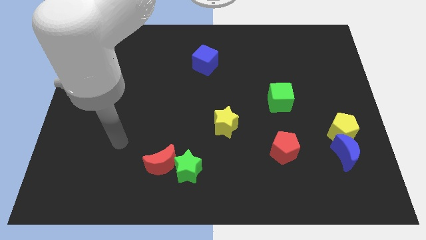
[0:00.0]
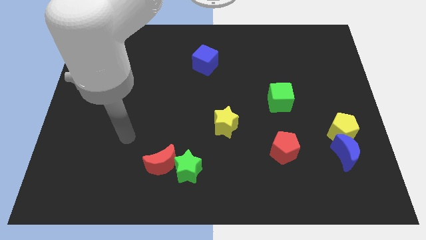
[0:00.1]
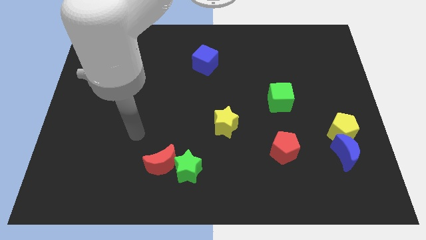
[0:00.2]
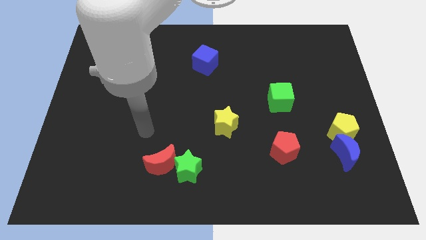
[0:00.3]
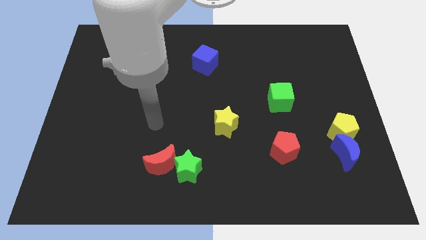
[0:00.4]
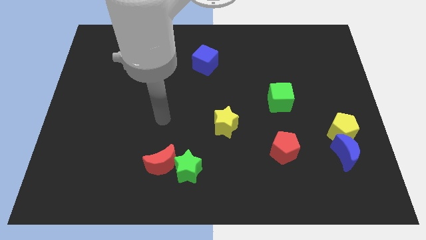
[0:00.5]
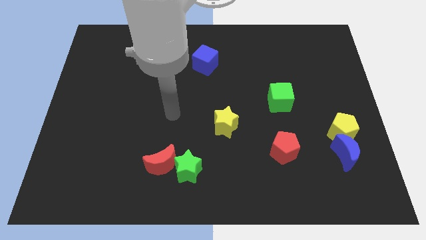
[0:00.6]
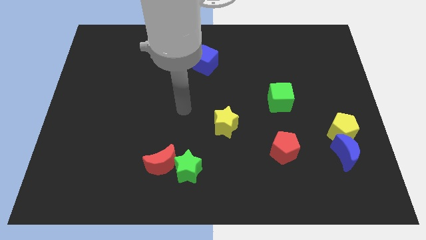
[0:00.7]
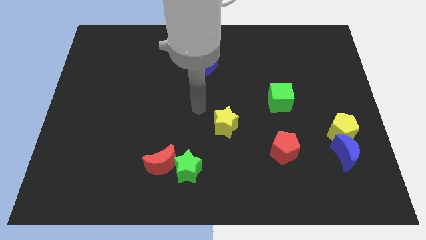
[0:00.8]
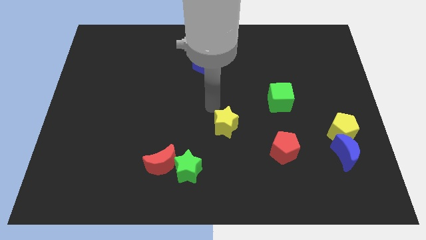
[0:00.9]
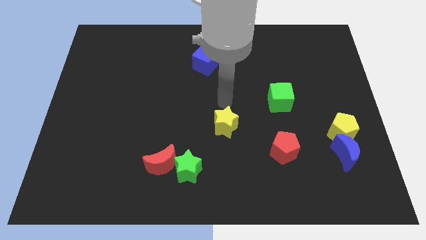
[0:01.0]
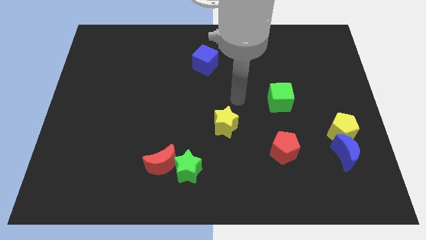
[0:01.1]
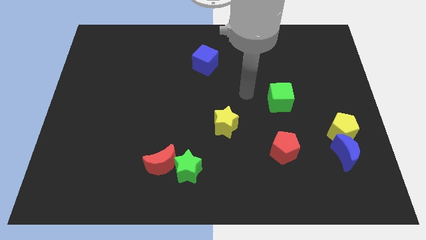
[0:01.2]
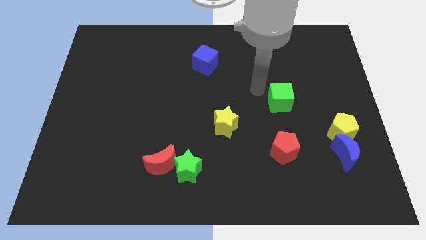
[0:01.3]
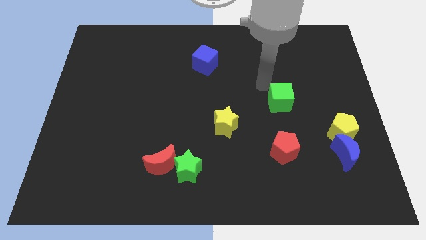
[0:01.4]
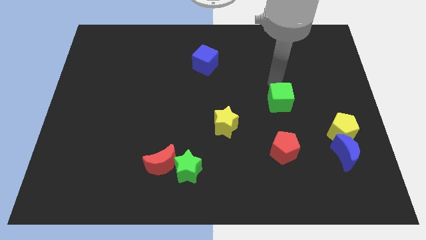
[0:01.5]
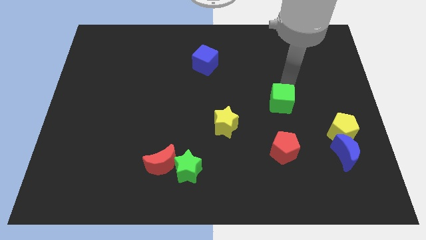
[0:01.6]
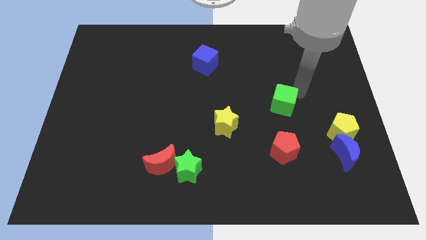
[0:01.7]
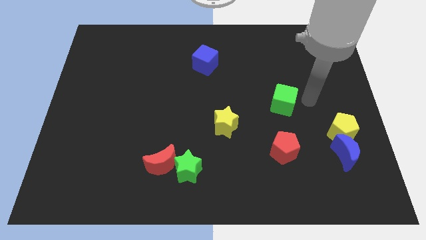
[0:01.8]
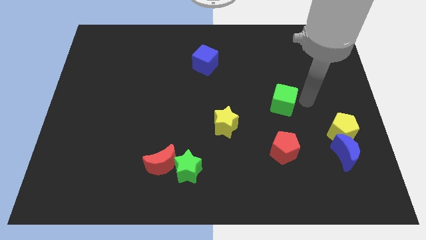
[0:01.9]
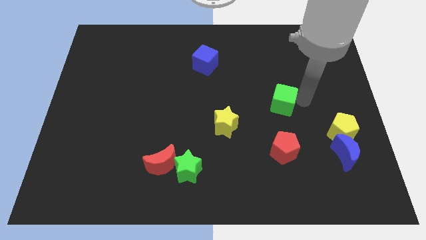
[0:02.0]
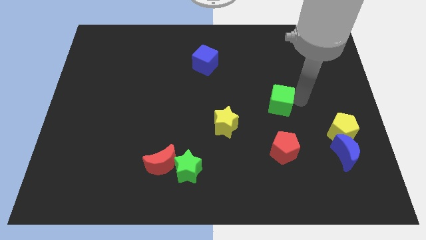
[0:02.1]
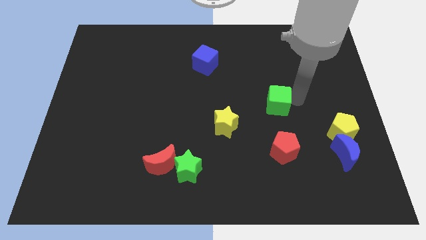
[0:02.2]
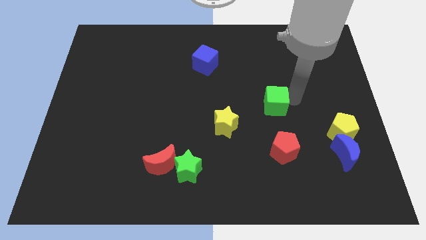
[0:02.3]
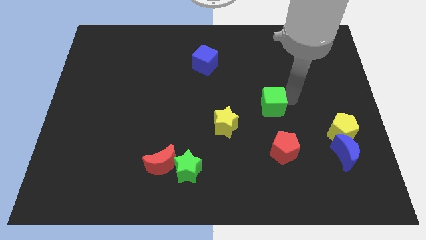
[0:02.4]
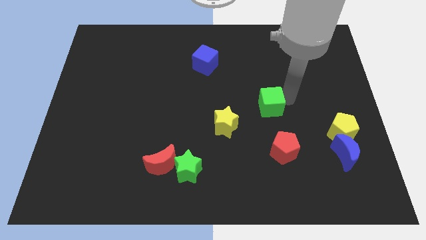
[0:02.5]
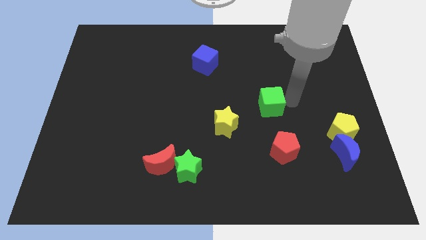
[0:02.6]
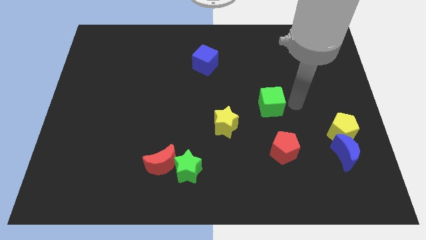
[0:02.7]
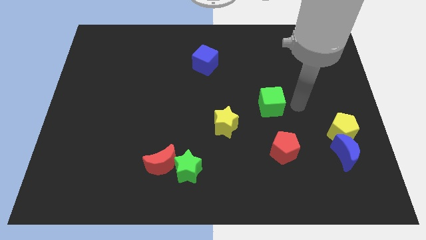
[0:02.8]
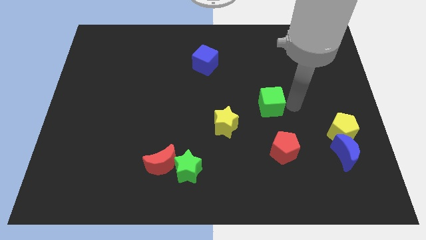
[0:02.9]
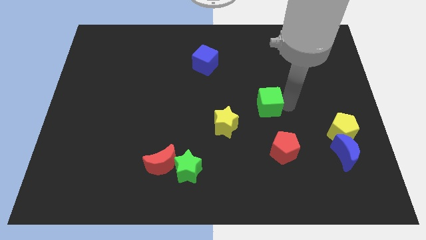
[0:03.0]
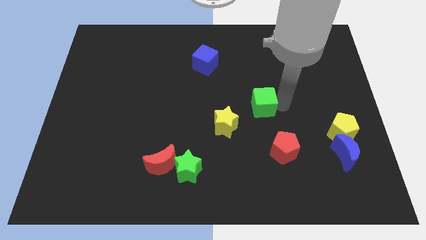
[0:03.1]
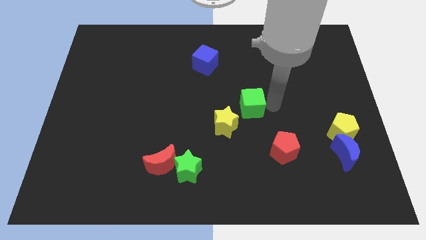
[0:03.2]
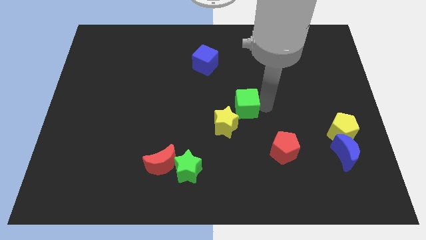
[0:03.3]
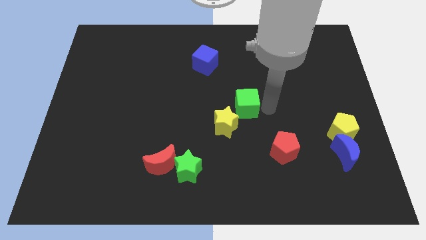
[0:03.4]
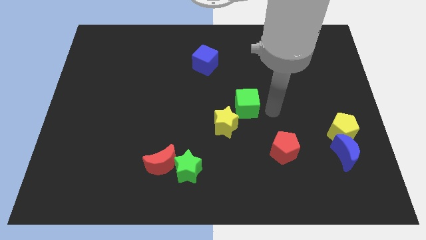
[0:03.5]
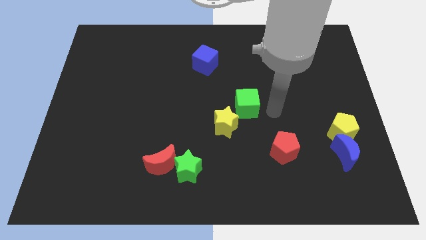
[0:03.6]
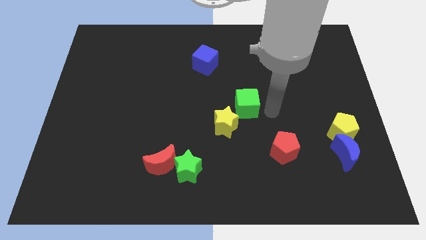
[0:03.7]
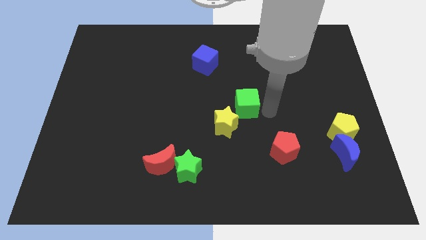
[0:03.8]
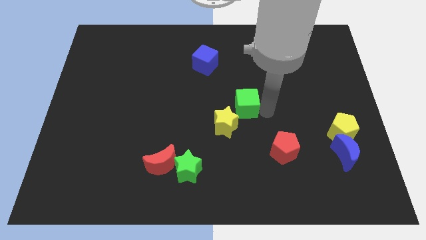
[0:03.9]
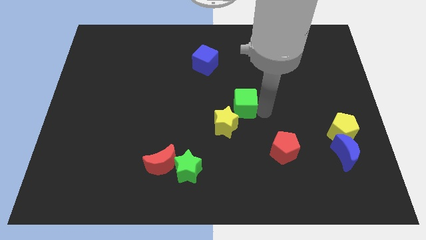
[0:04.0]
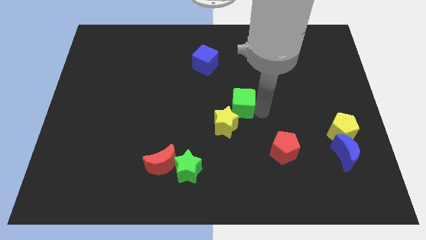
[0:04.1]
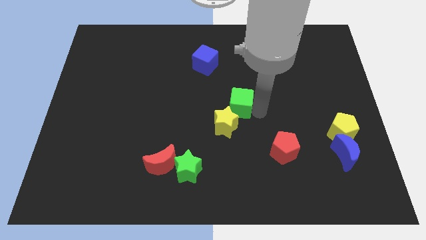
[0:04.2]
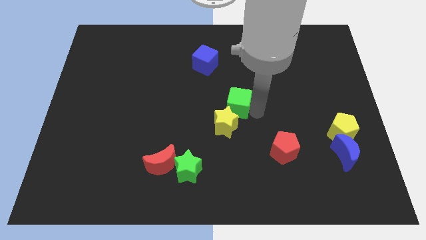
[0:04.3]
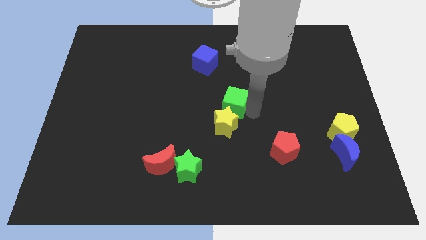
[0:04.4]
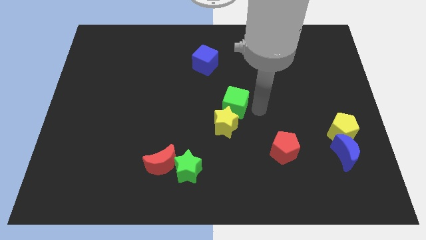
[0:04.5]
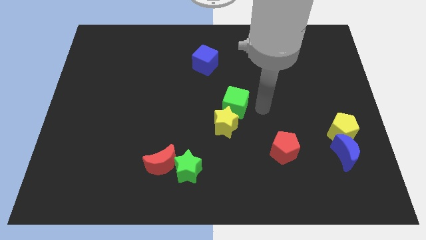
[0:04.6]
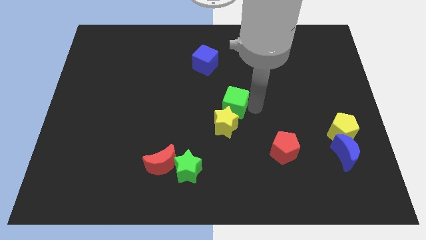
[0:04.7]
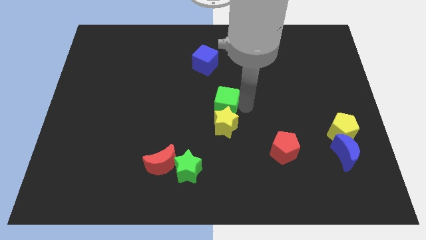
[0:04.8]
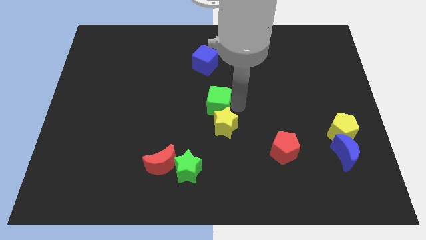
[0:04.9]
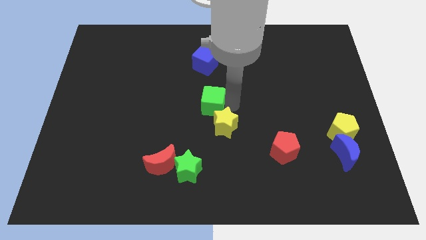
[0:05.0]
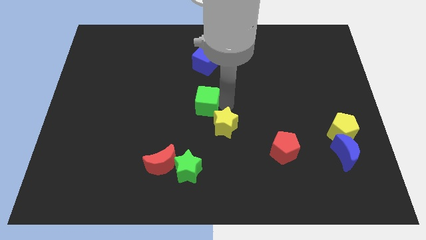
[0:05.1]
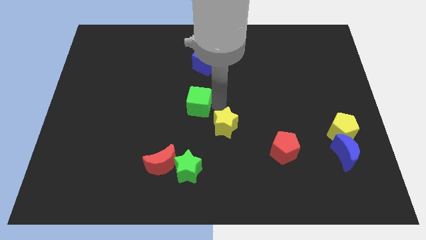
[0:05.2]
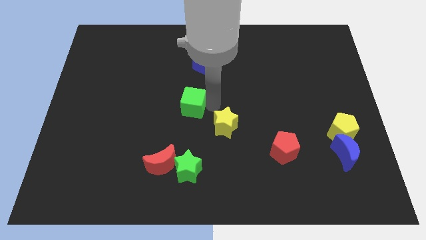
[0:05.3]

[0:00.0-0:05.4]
move the green cube left

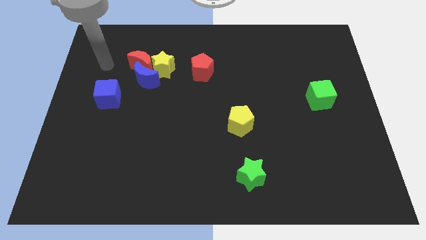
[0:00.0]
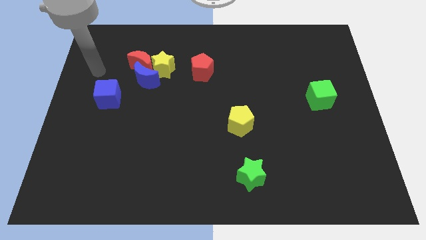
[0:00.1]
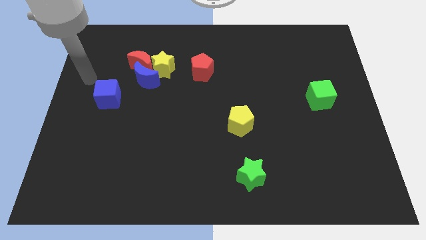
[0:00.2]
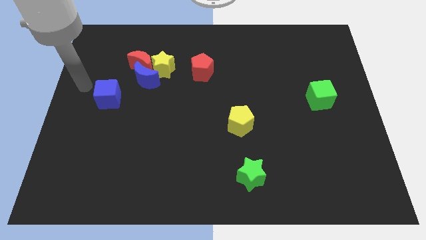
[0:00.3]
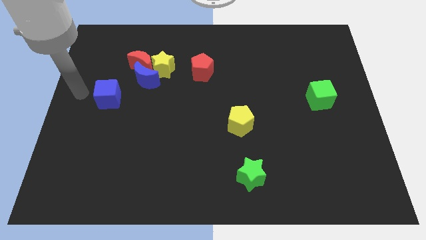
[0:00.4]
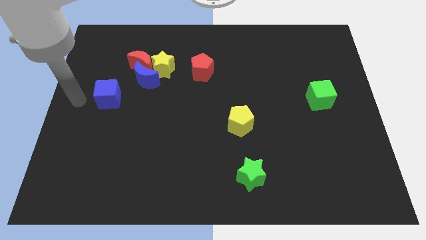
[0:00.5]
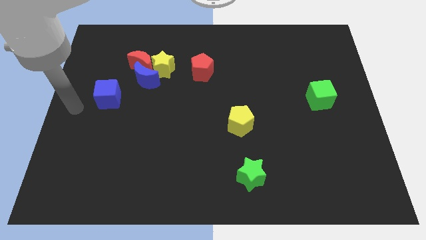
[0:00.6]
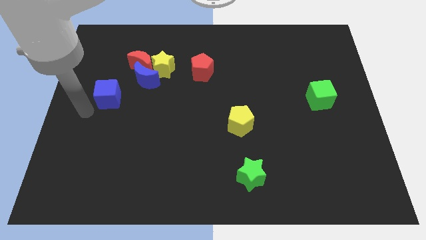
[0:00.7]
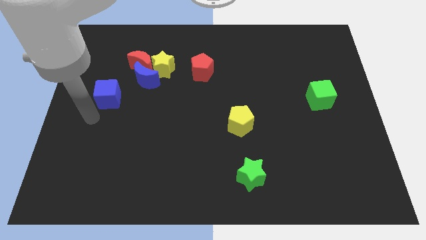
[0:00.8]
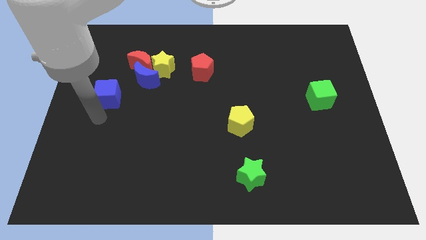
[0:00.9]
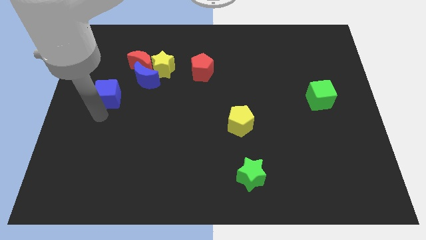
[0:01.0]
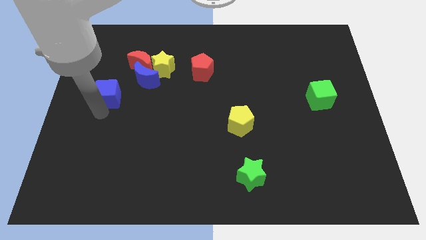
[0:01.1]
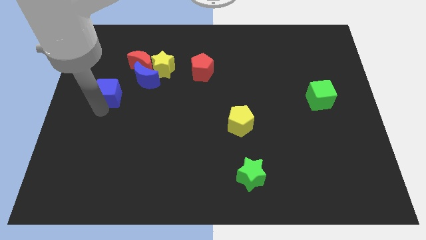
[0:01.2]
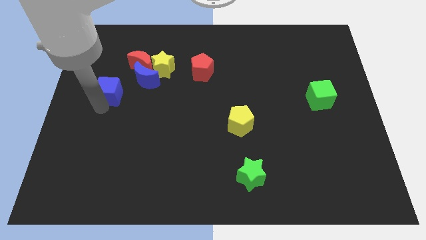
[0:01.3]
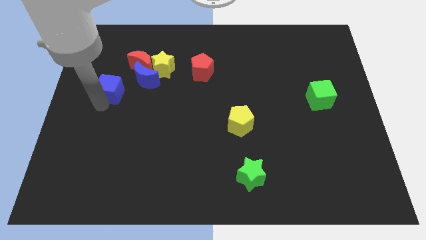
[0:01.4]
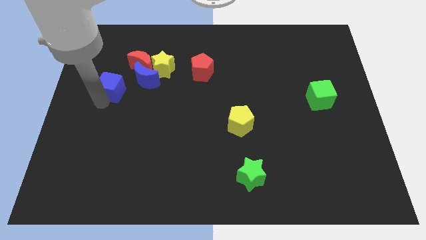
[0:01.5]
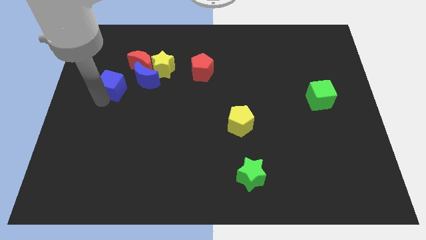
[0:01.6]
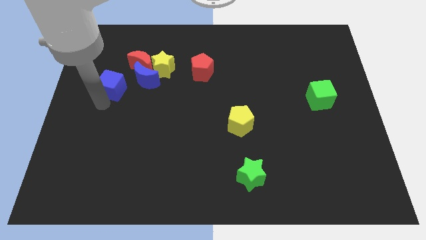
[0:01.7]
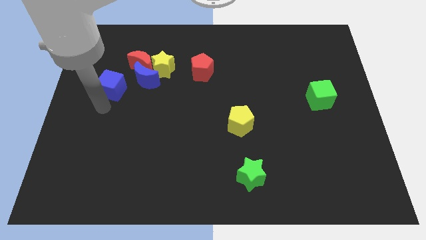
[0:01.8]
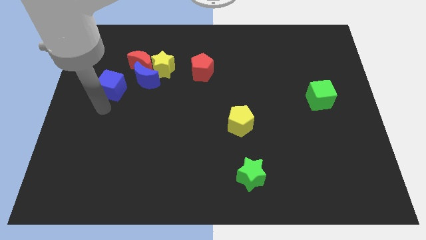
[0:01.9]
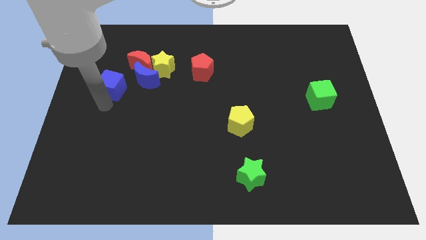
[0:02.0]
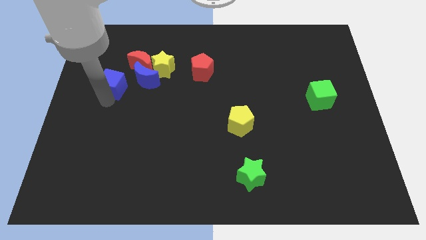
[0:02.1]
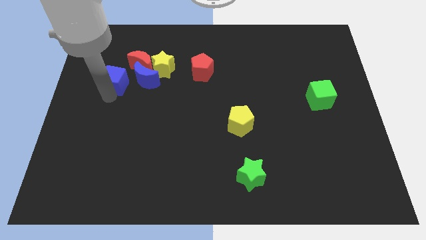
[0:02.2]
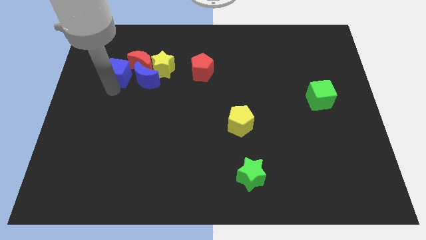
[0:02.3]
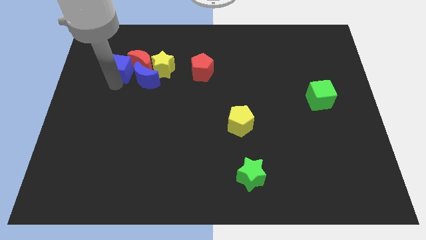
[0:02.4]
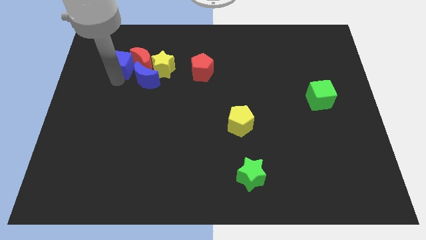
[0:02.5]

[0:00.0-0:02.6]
slightly push the blue cube diagonally up and right

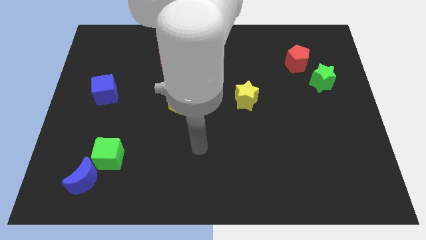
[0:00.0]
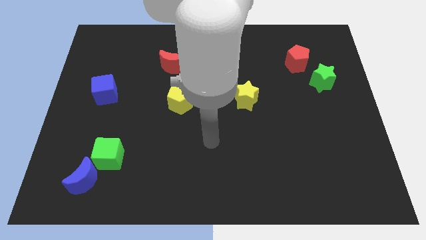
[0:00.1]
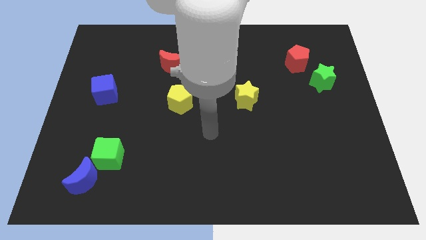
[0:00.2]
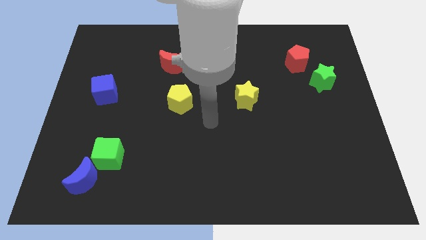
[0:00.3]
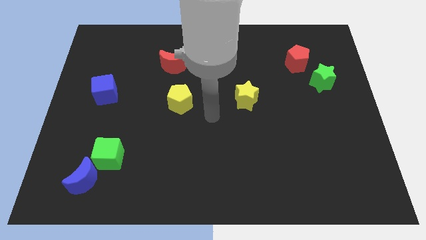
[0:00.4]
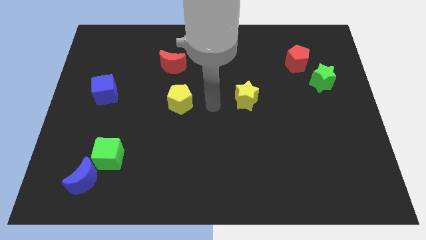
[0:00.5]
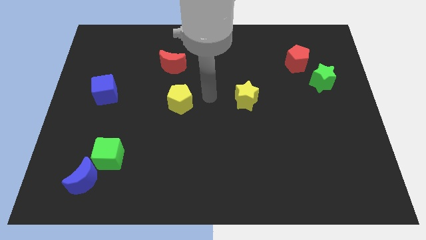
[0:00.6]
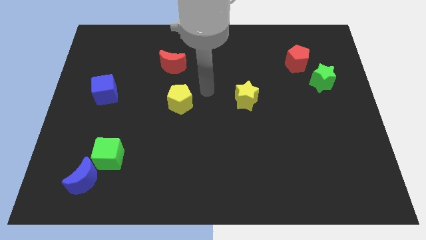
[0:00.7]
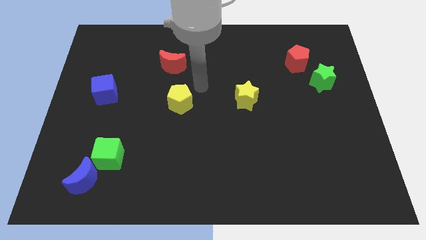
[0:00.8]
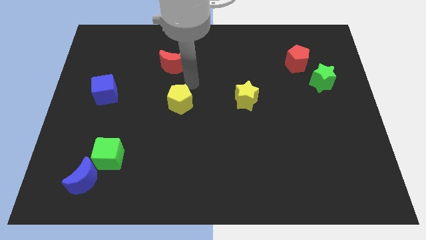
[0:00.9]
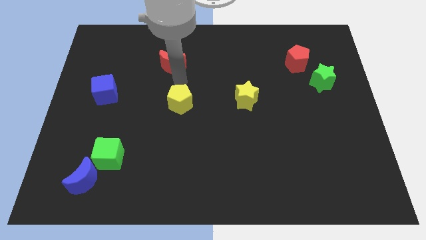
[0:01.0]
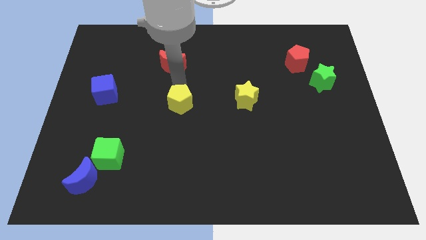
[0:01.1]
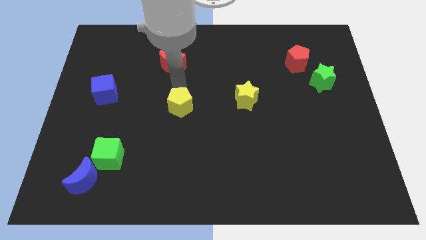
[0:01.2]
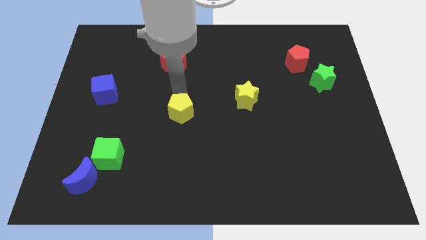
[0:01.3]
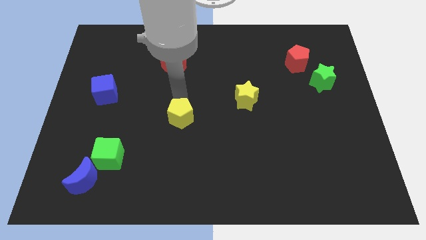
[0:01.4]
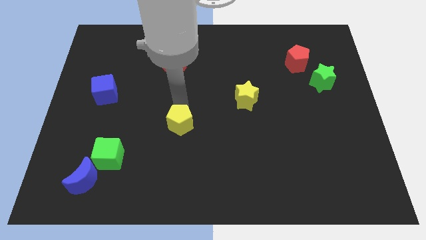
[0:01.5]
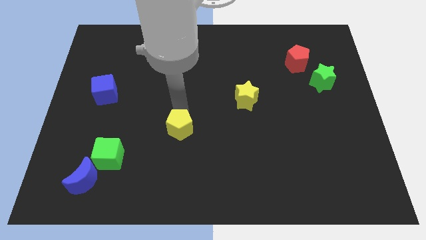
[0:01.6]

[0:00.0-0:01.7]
push the yellow pentagon a little bit down
